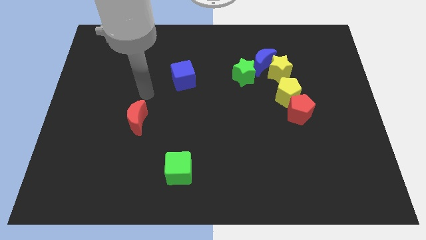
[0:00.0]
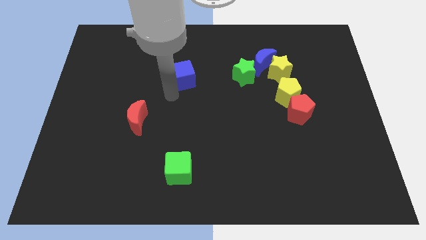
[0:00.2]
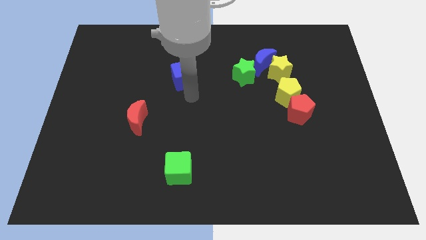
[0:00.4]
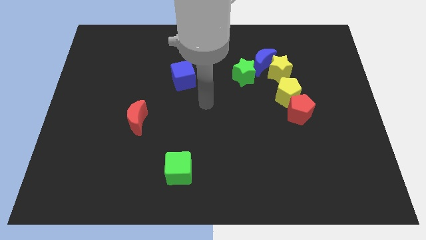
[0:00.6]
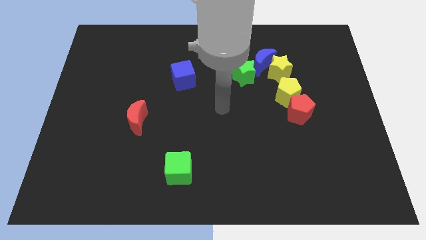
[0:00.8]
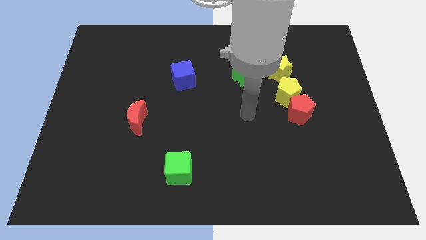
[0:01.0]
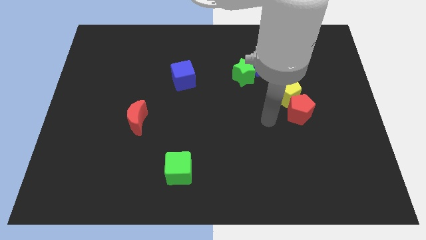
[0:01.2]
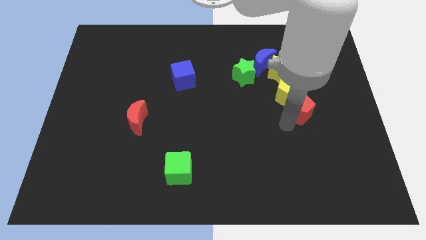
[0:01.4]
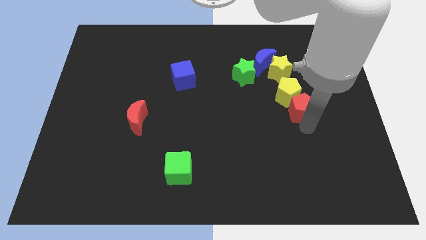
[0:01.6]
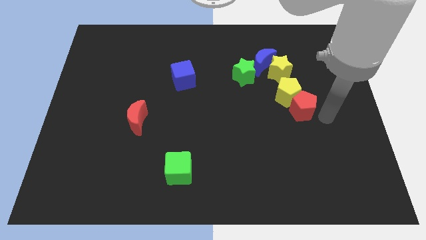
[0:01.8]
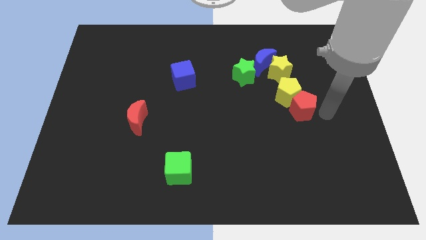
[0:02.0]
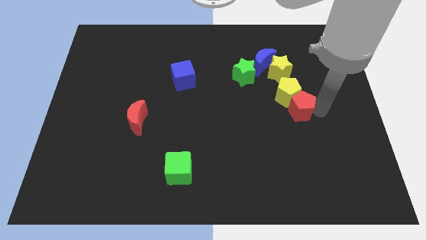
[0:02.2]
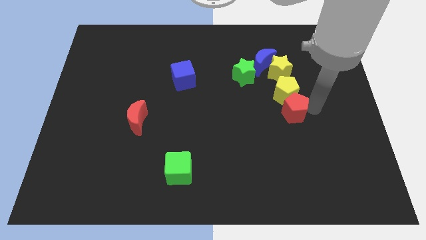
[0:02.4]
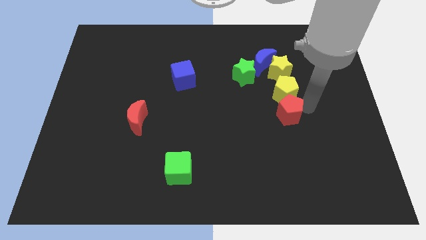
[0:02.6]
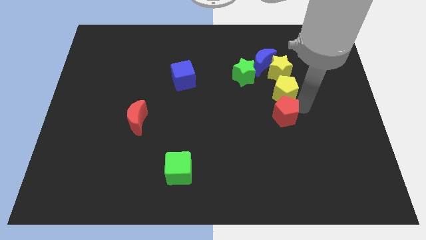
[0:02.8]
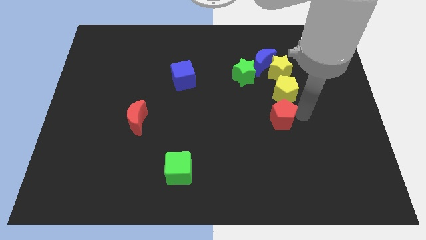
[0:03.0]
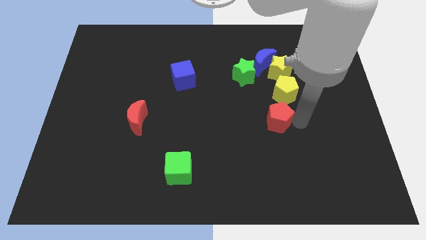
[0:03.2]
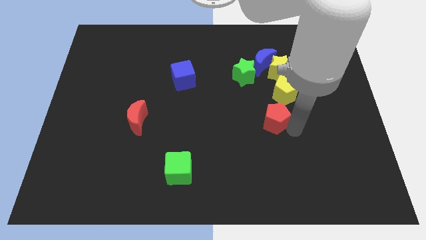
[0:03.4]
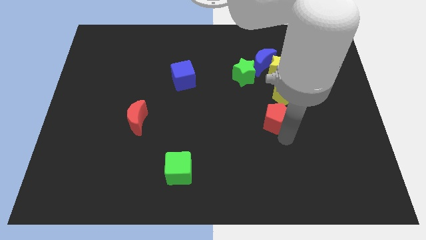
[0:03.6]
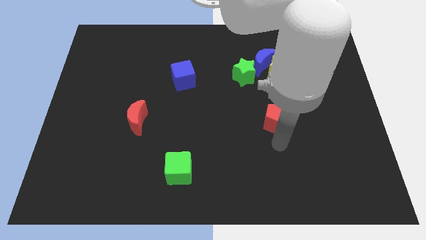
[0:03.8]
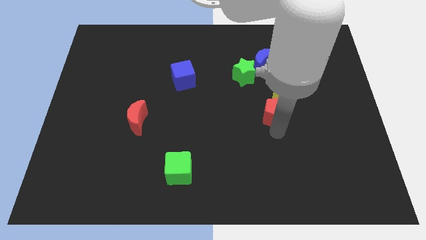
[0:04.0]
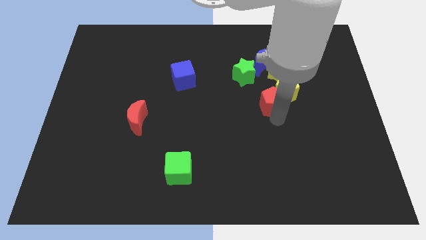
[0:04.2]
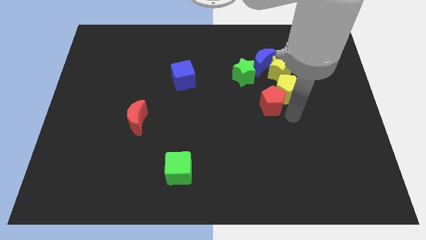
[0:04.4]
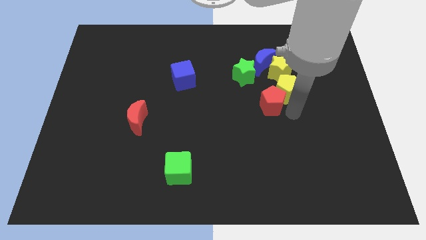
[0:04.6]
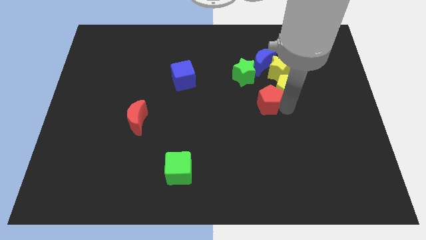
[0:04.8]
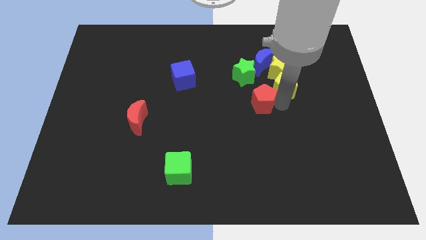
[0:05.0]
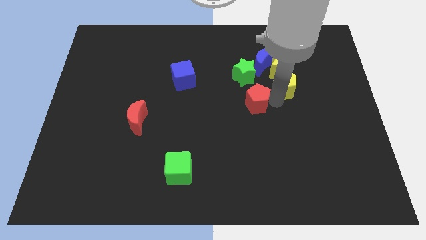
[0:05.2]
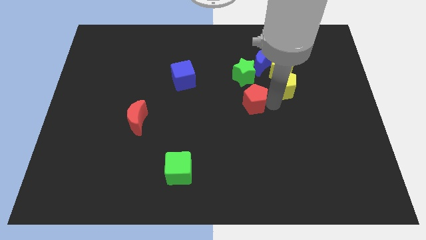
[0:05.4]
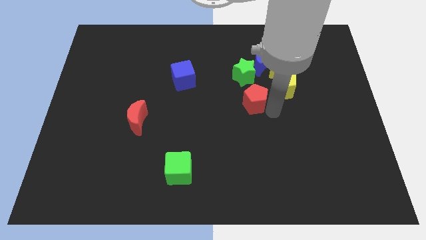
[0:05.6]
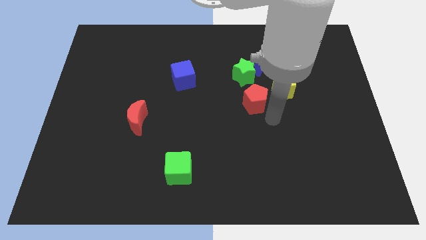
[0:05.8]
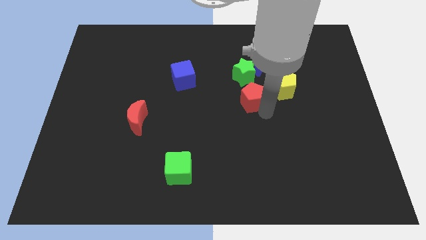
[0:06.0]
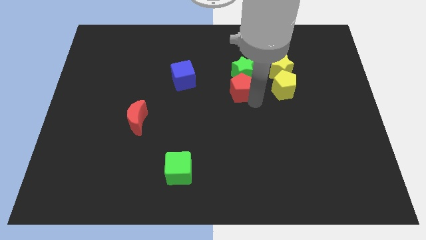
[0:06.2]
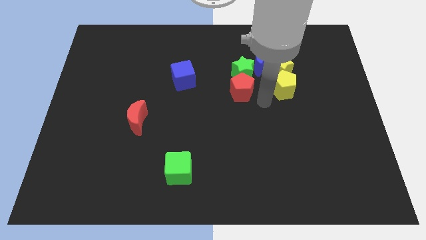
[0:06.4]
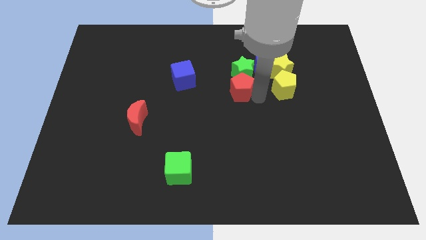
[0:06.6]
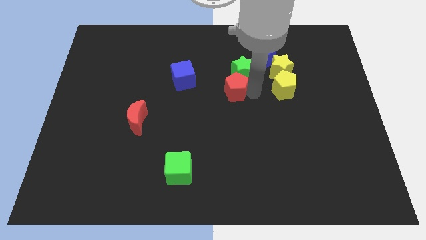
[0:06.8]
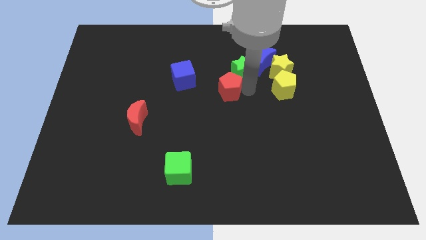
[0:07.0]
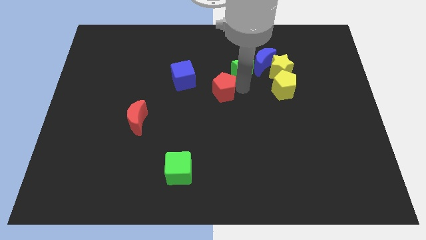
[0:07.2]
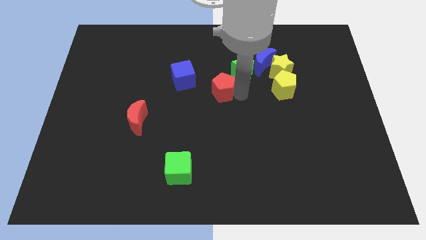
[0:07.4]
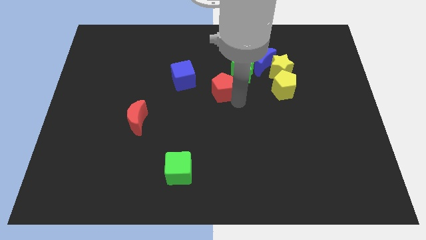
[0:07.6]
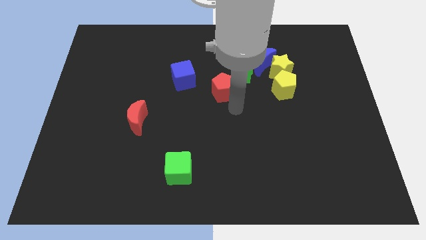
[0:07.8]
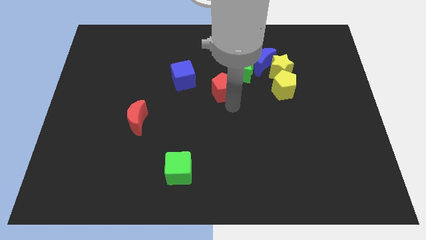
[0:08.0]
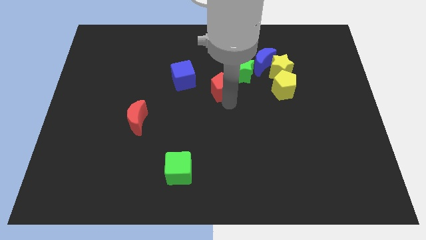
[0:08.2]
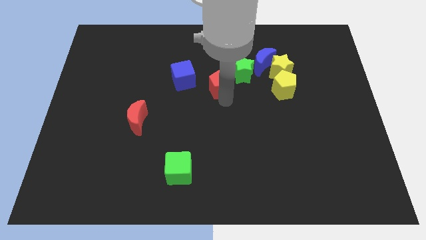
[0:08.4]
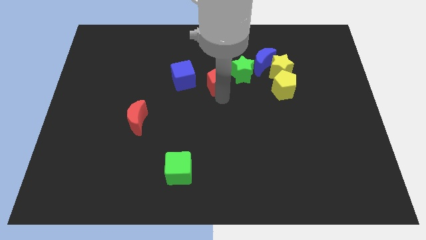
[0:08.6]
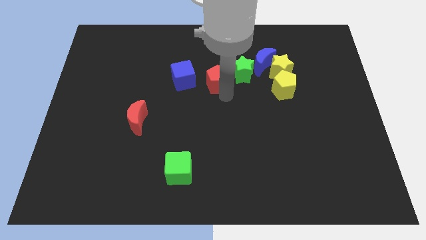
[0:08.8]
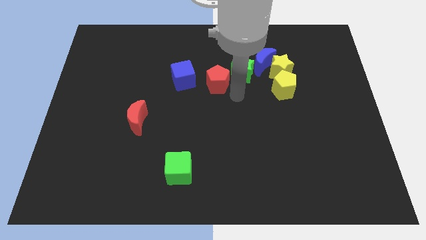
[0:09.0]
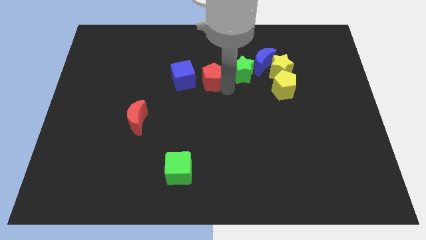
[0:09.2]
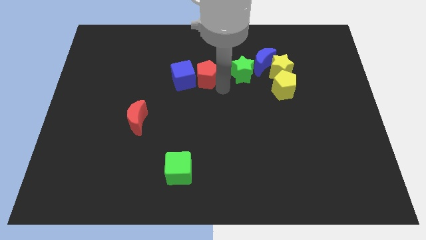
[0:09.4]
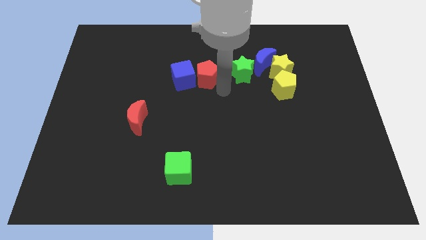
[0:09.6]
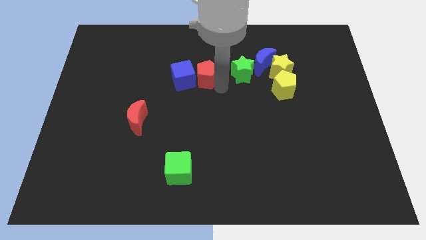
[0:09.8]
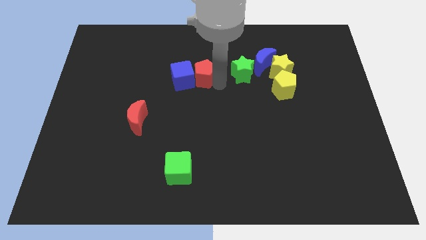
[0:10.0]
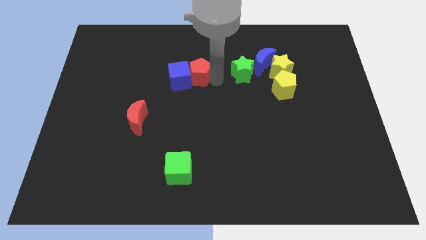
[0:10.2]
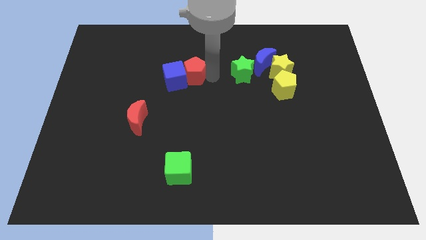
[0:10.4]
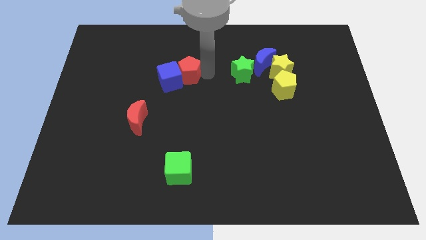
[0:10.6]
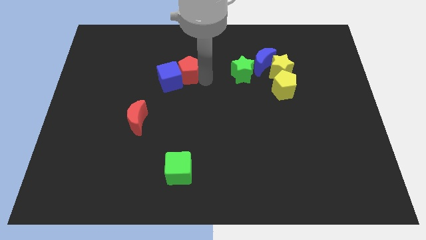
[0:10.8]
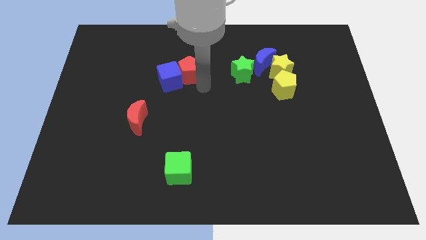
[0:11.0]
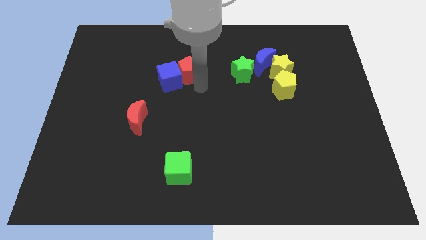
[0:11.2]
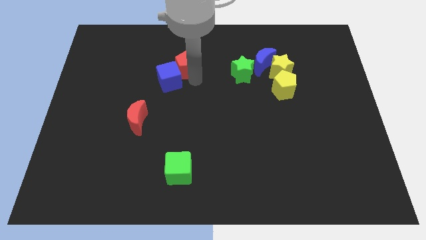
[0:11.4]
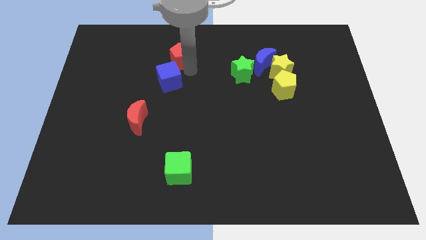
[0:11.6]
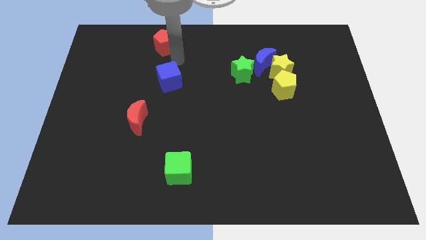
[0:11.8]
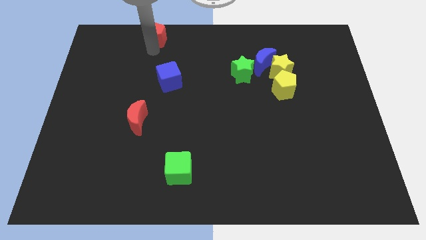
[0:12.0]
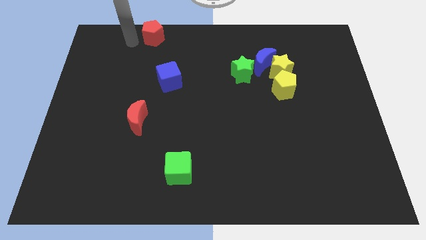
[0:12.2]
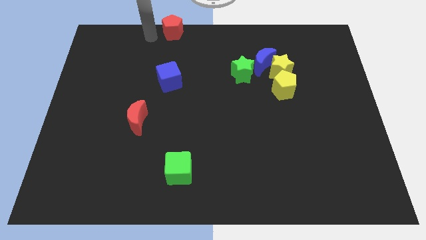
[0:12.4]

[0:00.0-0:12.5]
move the red pentagon to the towards your base
